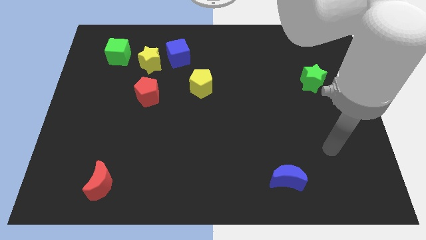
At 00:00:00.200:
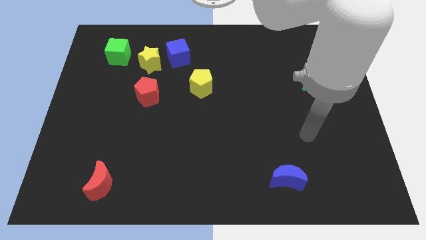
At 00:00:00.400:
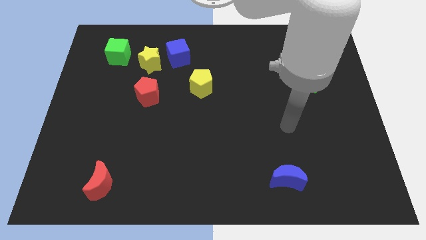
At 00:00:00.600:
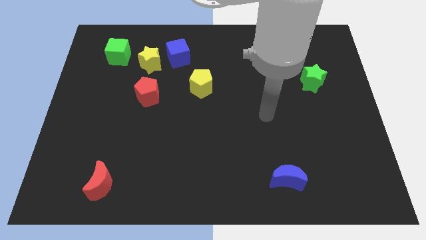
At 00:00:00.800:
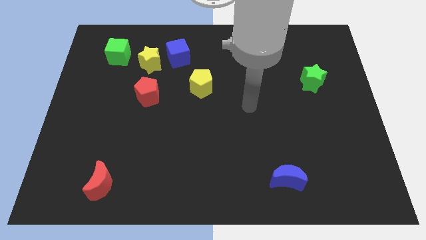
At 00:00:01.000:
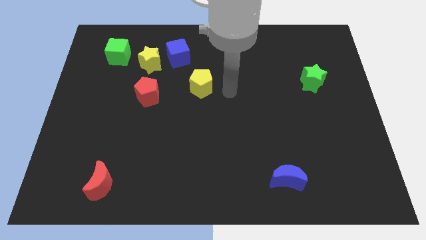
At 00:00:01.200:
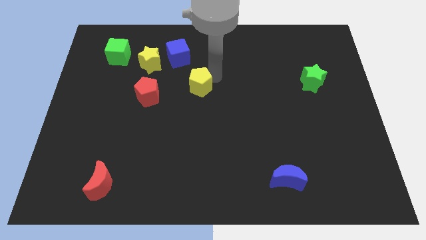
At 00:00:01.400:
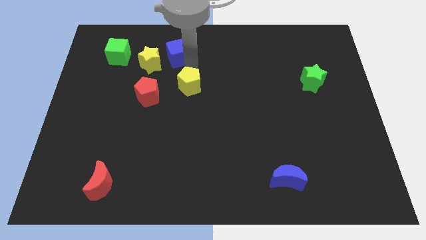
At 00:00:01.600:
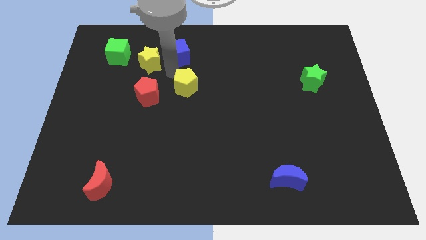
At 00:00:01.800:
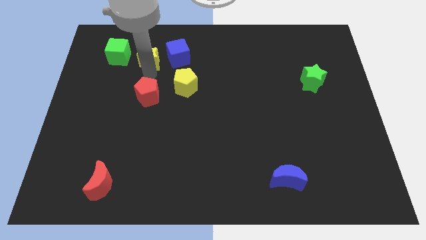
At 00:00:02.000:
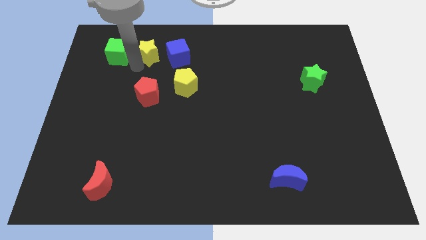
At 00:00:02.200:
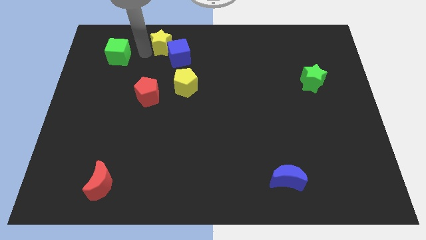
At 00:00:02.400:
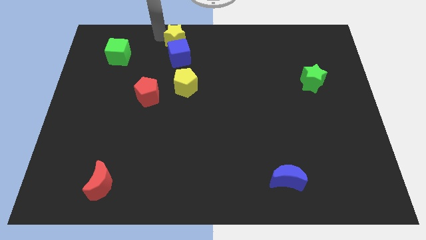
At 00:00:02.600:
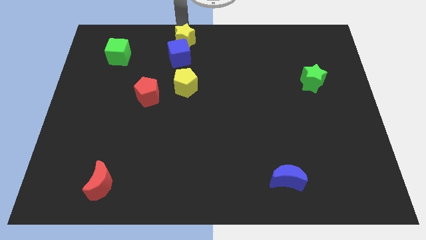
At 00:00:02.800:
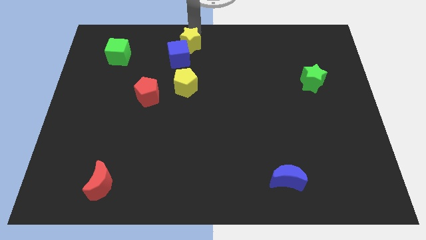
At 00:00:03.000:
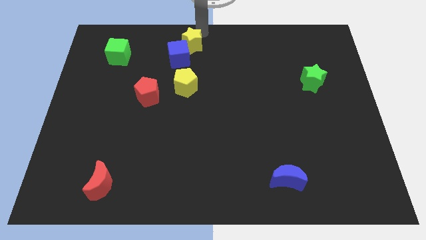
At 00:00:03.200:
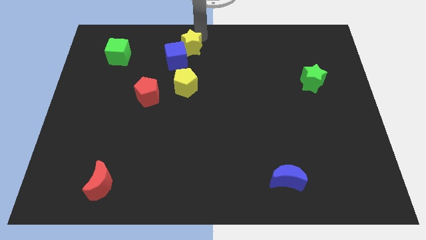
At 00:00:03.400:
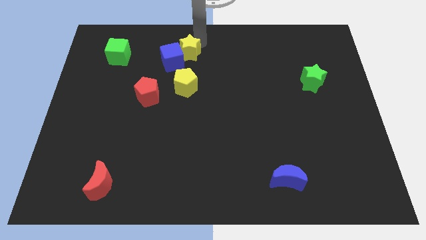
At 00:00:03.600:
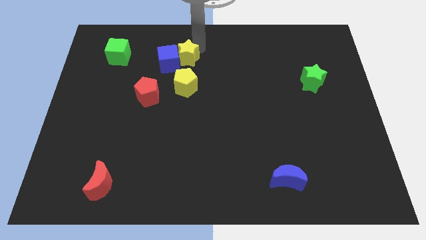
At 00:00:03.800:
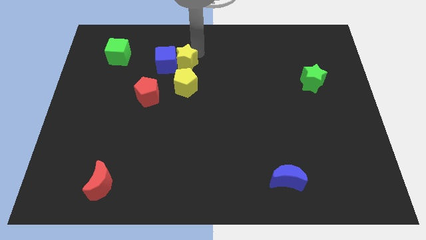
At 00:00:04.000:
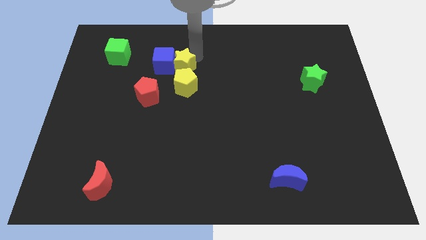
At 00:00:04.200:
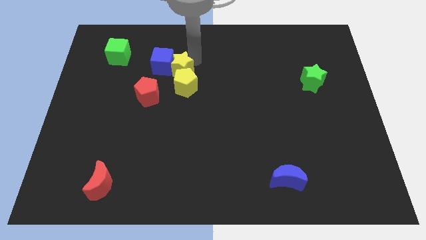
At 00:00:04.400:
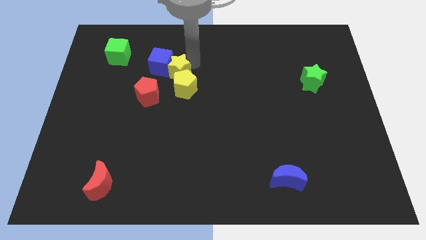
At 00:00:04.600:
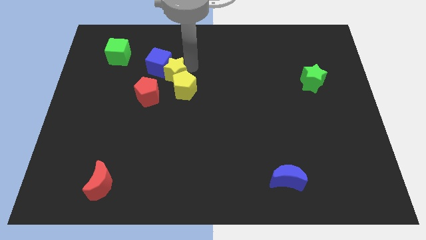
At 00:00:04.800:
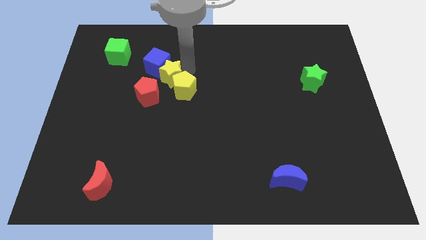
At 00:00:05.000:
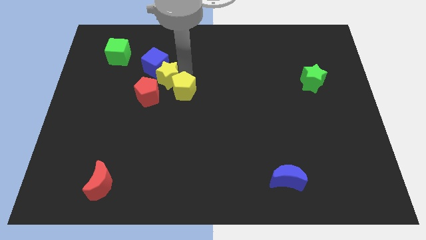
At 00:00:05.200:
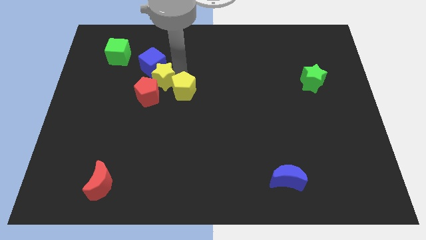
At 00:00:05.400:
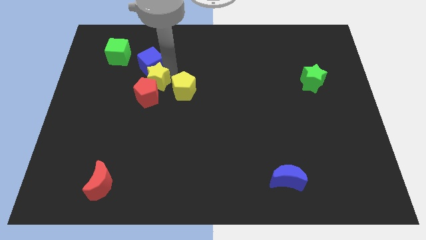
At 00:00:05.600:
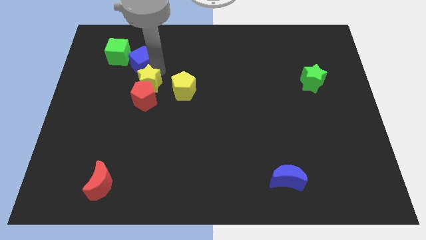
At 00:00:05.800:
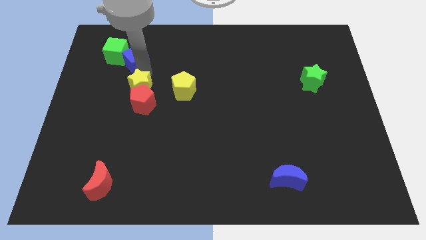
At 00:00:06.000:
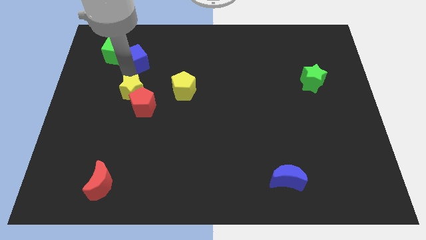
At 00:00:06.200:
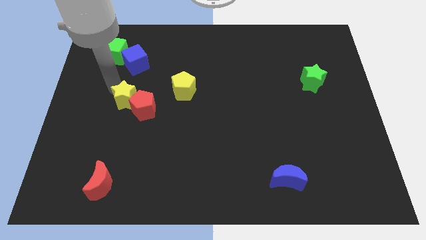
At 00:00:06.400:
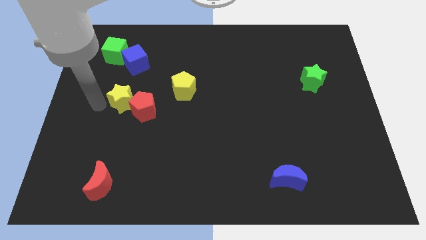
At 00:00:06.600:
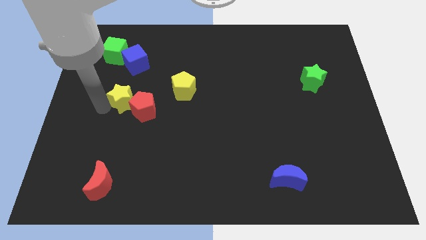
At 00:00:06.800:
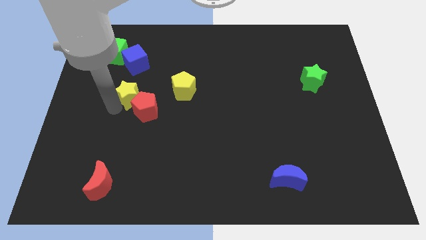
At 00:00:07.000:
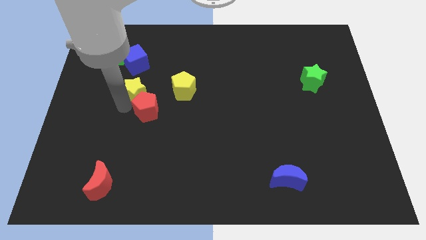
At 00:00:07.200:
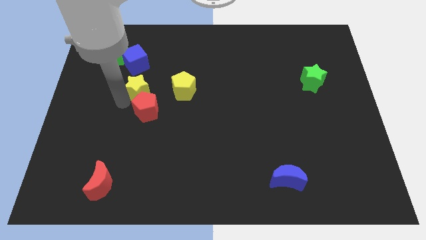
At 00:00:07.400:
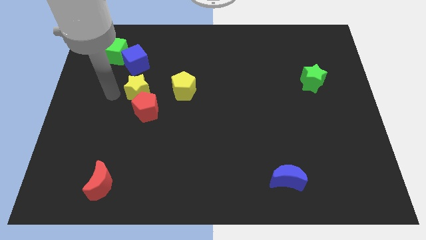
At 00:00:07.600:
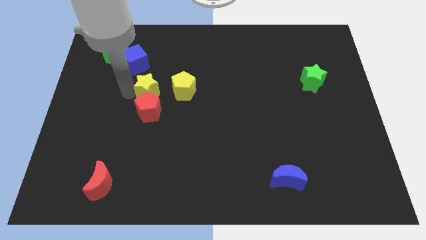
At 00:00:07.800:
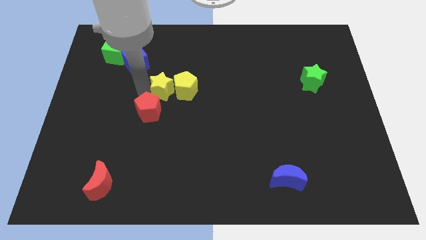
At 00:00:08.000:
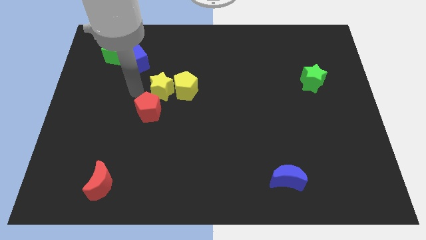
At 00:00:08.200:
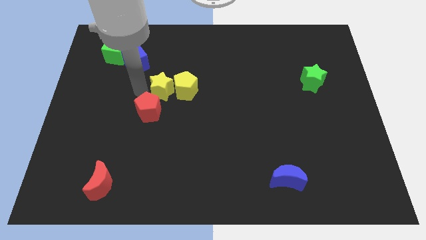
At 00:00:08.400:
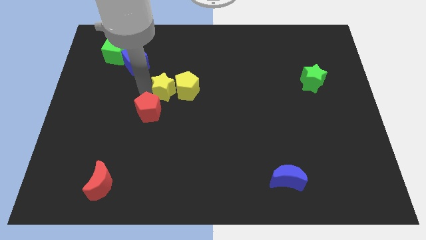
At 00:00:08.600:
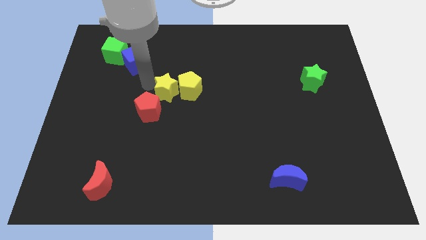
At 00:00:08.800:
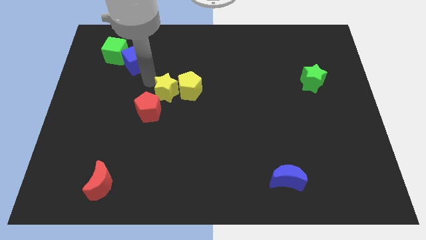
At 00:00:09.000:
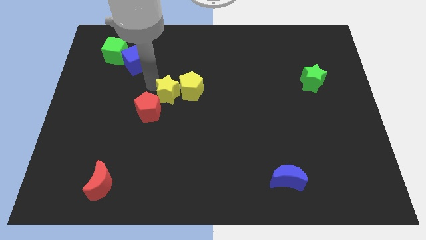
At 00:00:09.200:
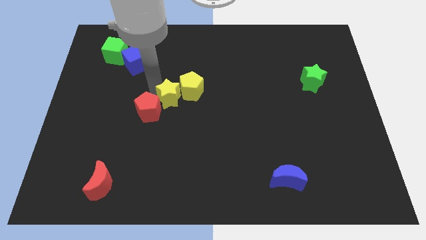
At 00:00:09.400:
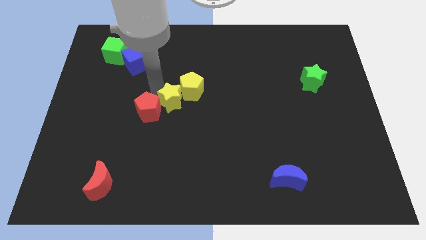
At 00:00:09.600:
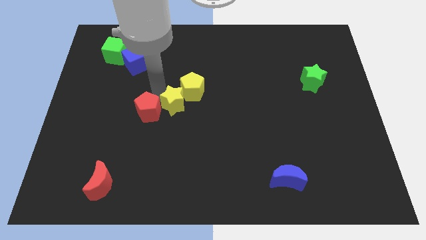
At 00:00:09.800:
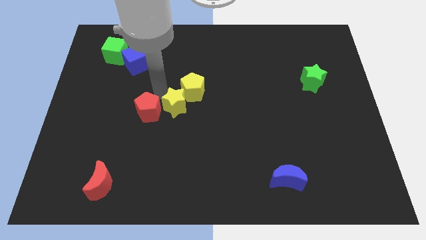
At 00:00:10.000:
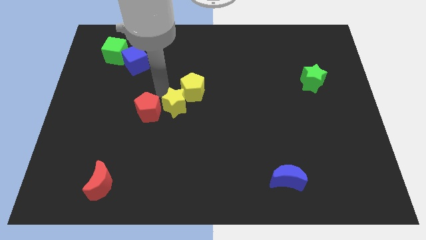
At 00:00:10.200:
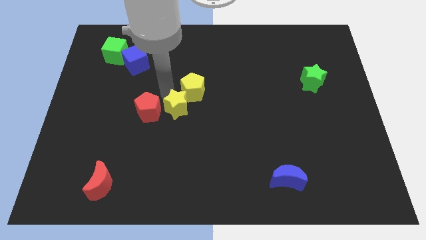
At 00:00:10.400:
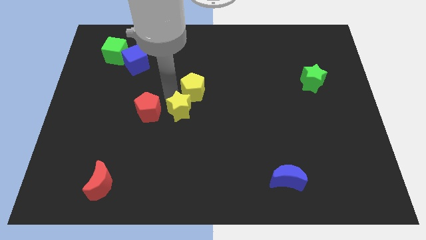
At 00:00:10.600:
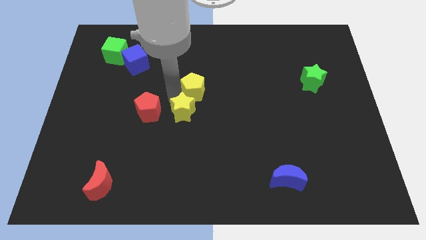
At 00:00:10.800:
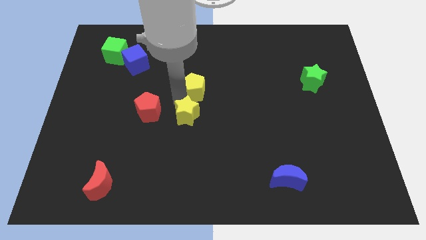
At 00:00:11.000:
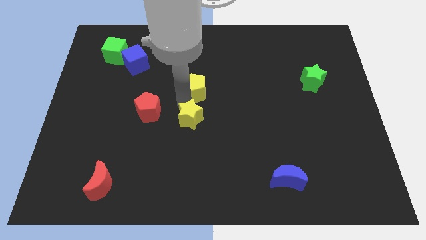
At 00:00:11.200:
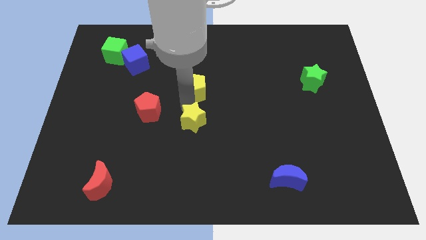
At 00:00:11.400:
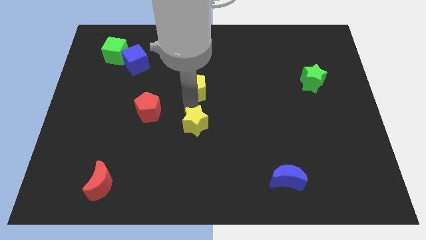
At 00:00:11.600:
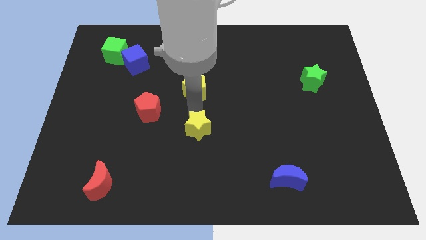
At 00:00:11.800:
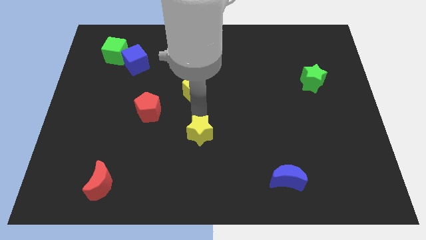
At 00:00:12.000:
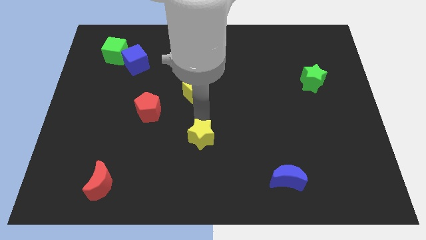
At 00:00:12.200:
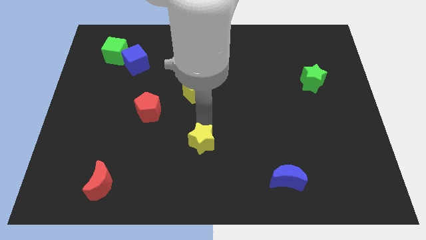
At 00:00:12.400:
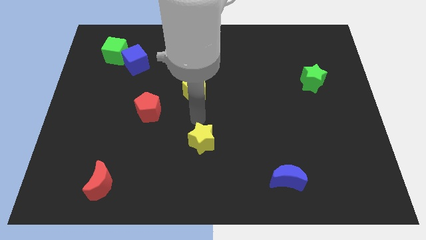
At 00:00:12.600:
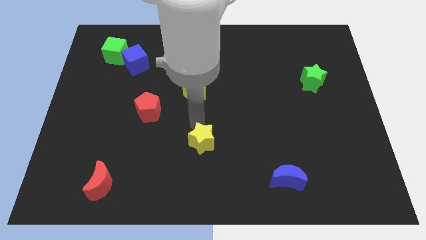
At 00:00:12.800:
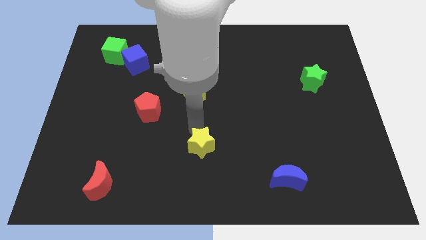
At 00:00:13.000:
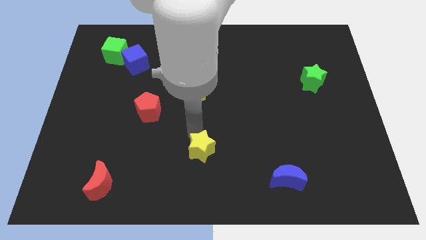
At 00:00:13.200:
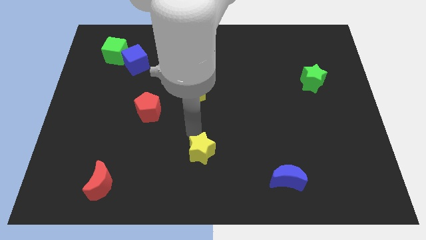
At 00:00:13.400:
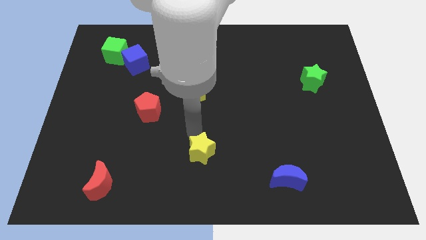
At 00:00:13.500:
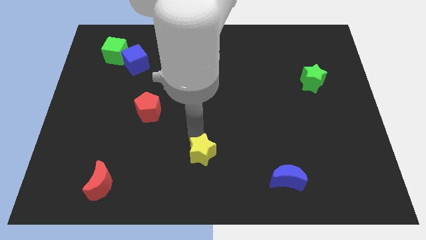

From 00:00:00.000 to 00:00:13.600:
slide the yellow star to the bottom side

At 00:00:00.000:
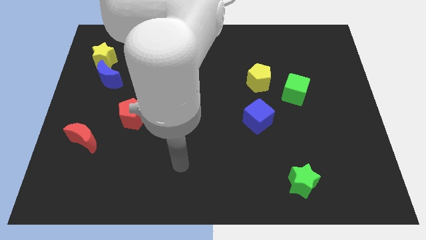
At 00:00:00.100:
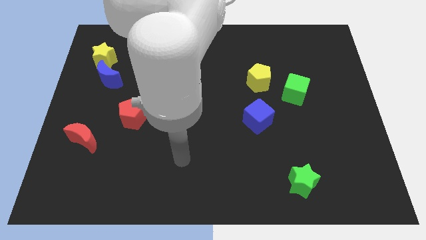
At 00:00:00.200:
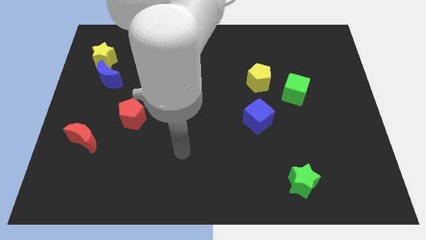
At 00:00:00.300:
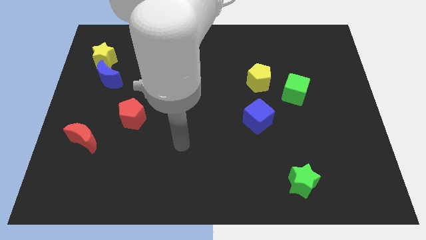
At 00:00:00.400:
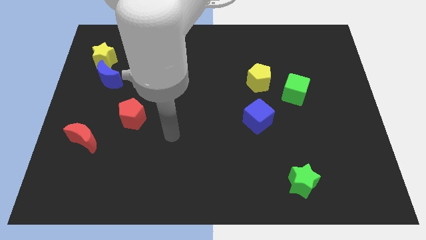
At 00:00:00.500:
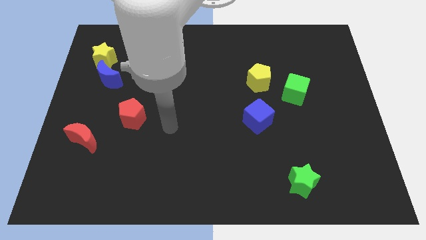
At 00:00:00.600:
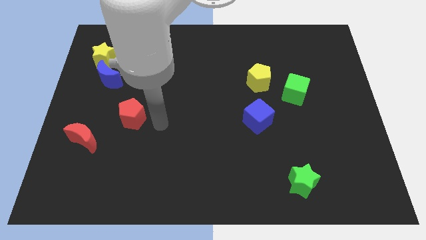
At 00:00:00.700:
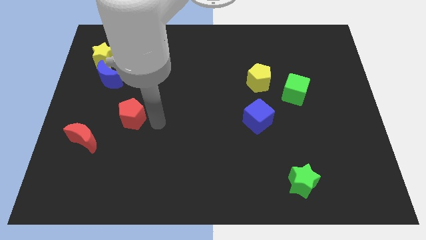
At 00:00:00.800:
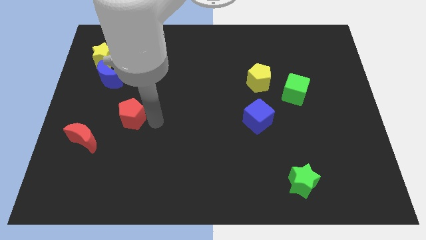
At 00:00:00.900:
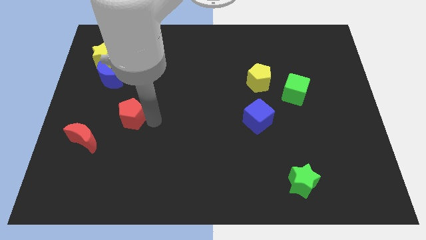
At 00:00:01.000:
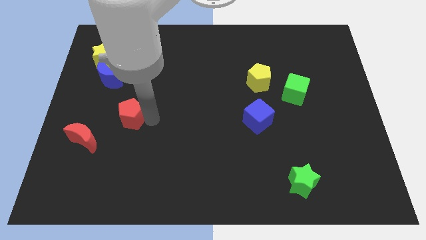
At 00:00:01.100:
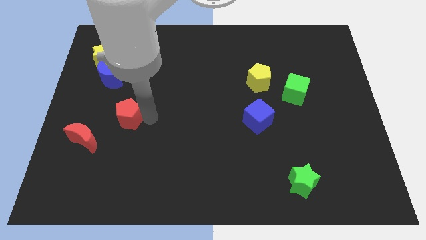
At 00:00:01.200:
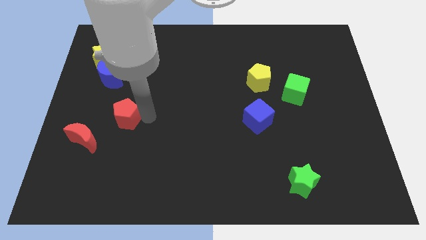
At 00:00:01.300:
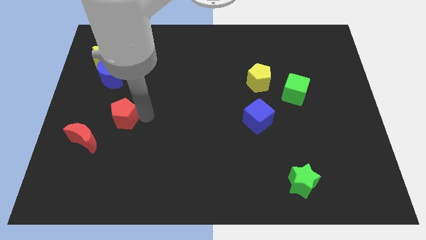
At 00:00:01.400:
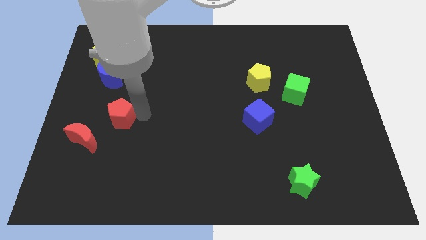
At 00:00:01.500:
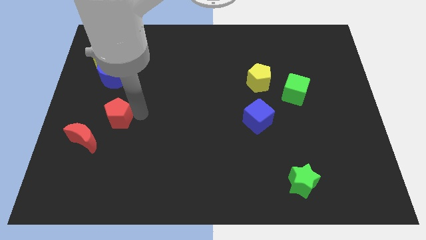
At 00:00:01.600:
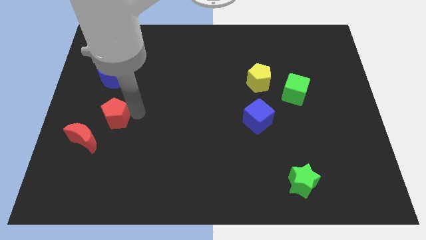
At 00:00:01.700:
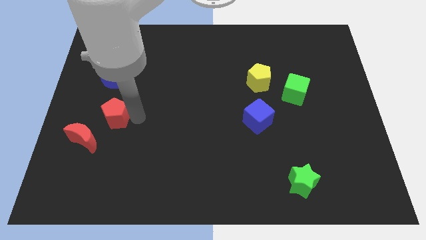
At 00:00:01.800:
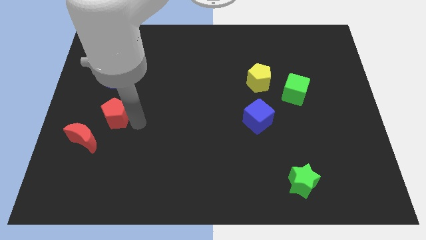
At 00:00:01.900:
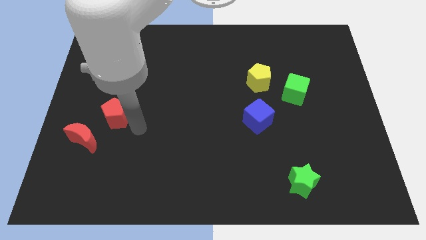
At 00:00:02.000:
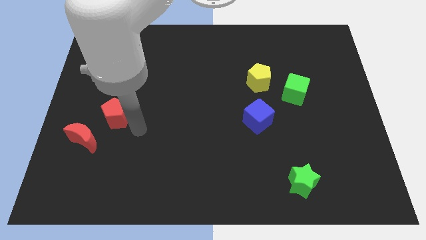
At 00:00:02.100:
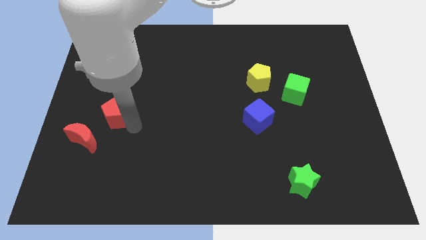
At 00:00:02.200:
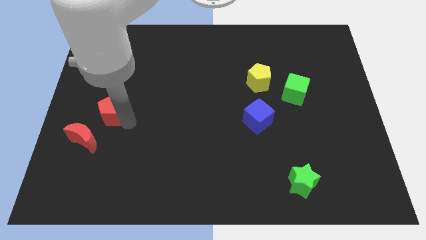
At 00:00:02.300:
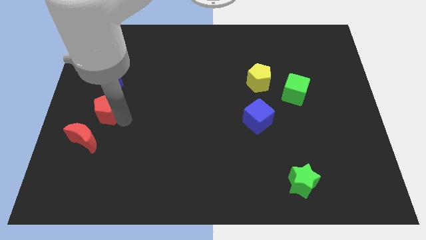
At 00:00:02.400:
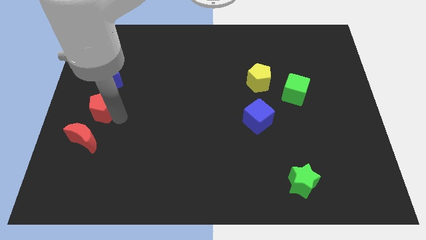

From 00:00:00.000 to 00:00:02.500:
slide the red pentagon to the left side of the board
